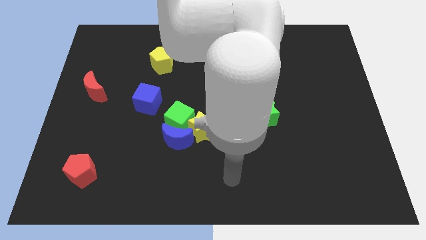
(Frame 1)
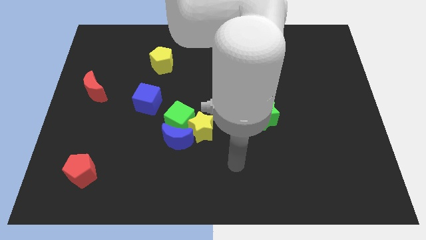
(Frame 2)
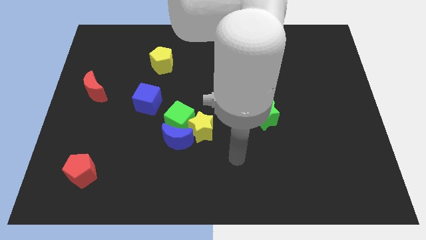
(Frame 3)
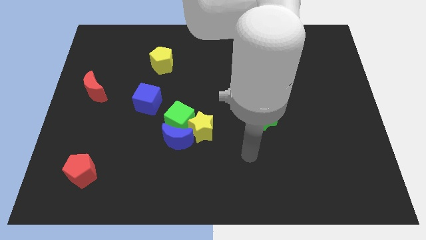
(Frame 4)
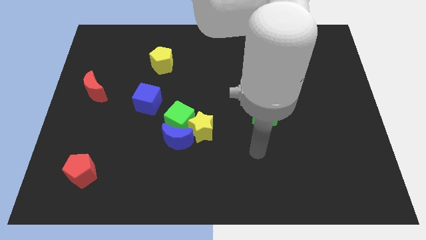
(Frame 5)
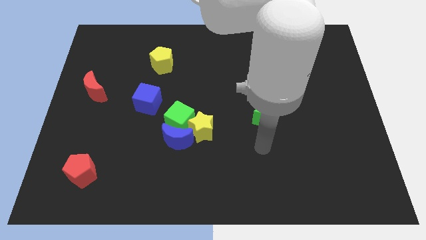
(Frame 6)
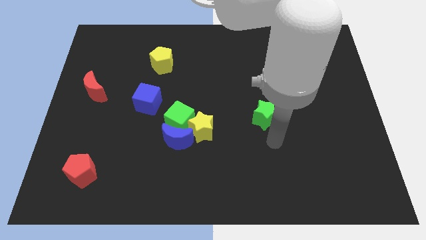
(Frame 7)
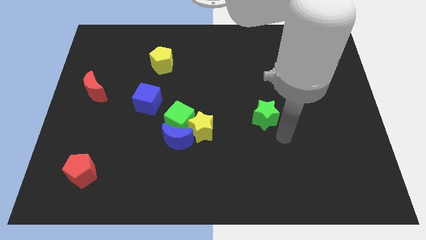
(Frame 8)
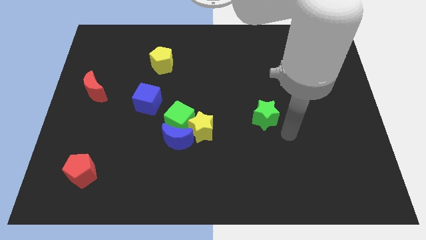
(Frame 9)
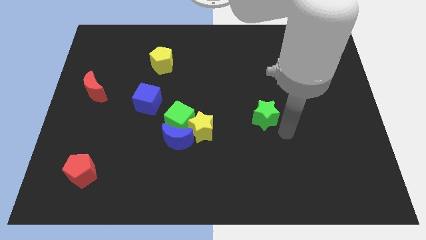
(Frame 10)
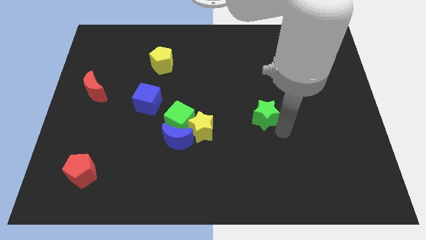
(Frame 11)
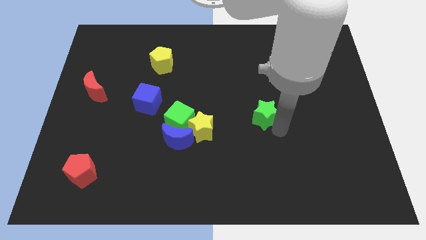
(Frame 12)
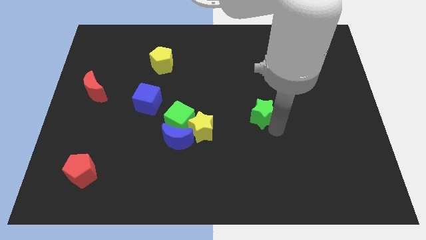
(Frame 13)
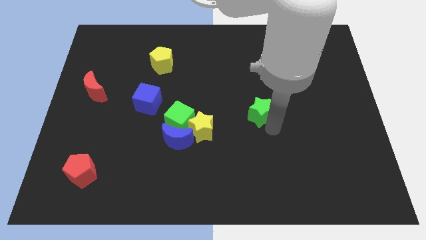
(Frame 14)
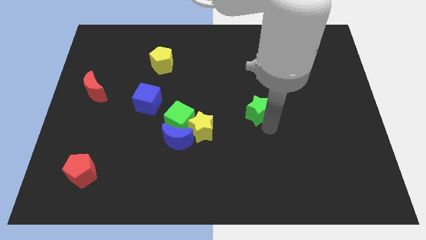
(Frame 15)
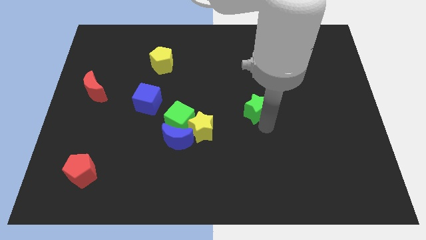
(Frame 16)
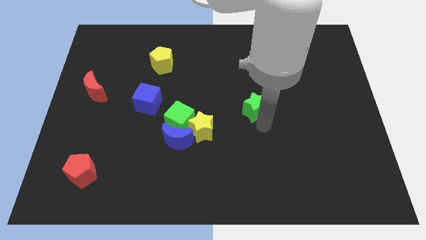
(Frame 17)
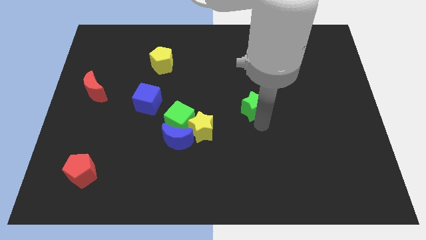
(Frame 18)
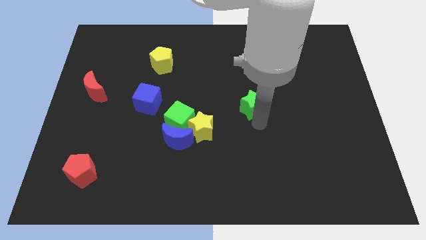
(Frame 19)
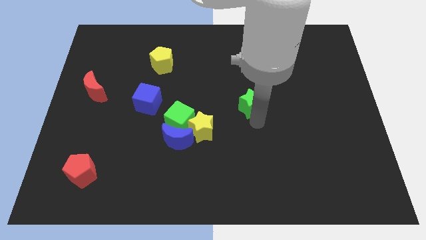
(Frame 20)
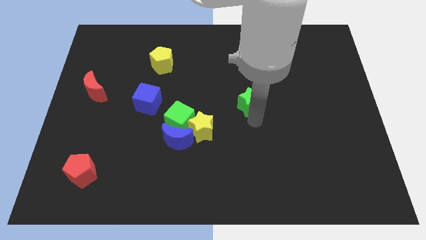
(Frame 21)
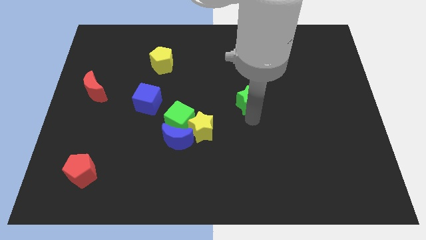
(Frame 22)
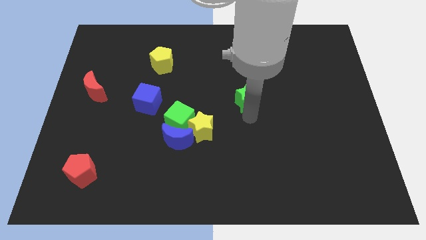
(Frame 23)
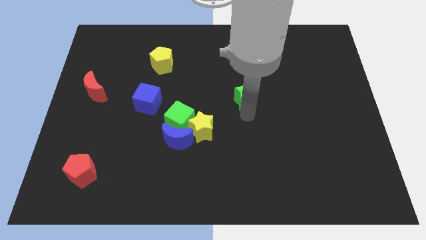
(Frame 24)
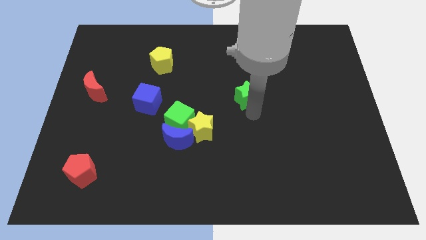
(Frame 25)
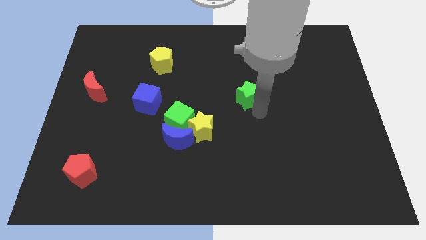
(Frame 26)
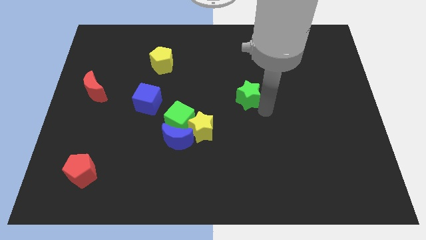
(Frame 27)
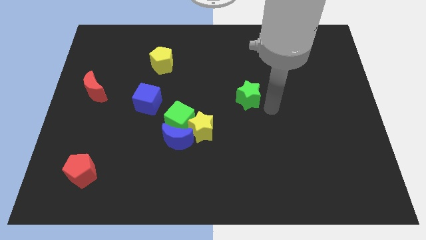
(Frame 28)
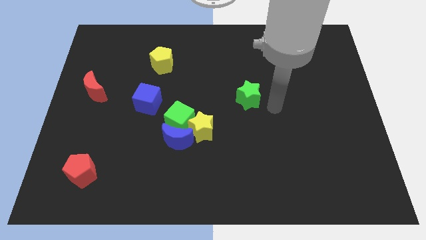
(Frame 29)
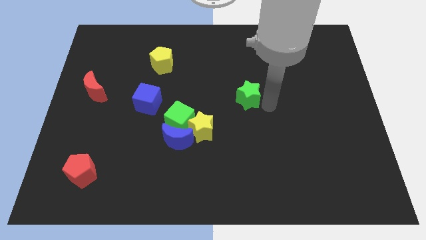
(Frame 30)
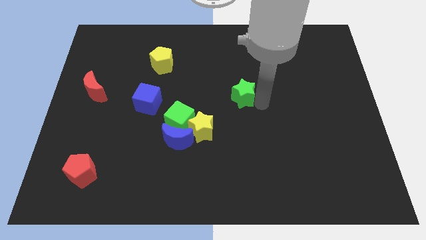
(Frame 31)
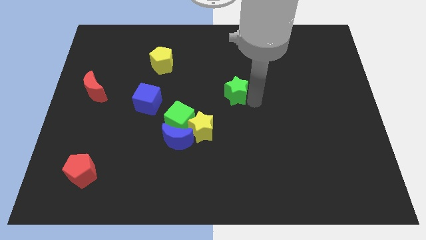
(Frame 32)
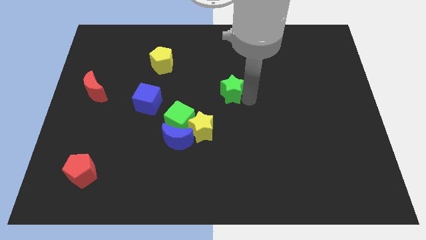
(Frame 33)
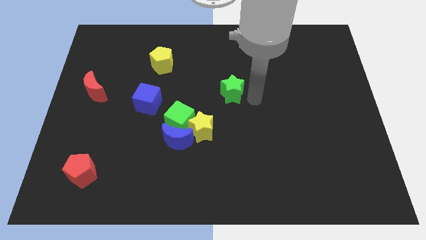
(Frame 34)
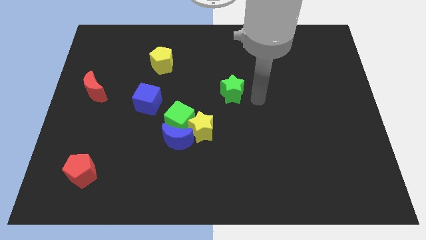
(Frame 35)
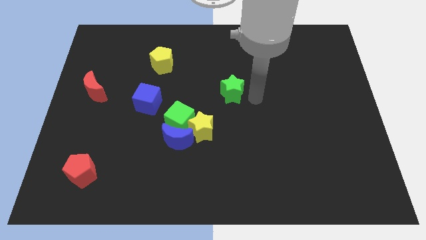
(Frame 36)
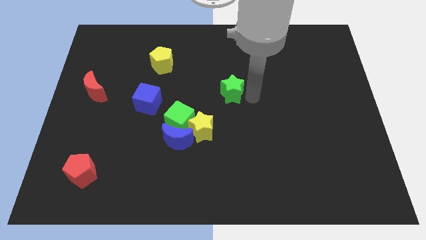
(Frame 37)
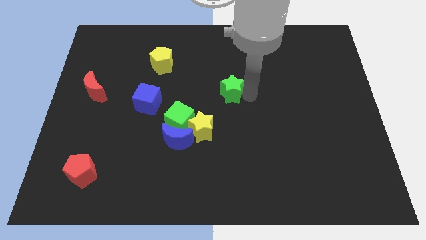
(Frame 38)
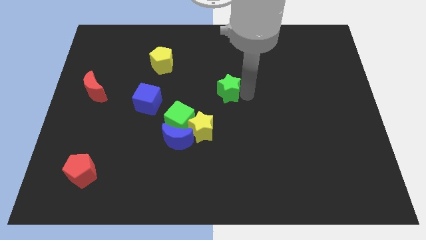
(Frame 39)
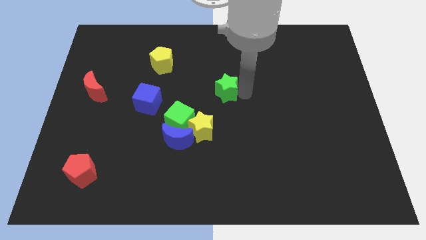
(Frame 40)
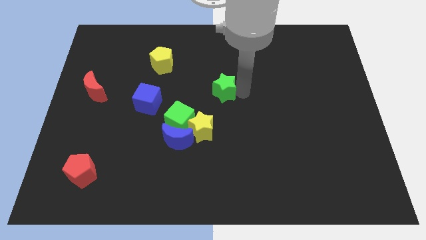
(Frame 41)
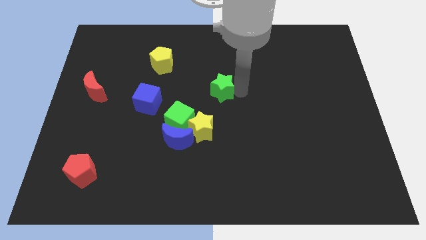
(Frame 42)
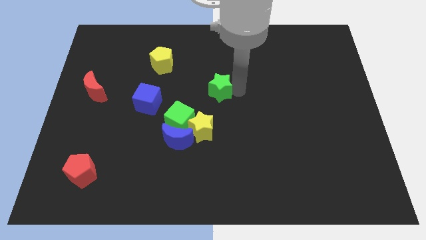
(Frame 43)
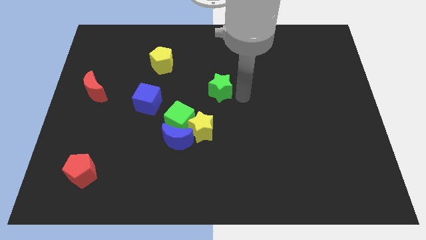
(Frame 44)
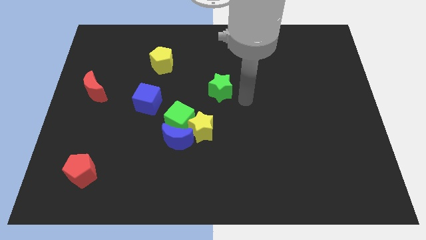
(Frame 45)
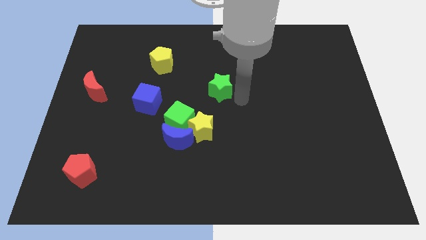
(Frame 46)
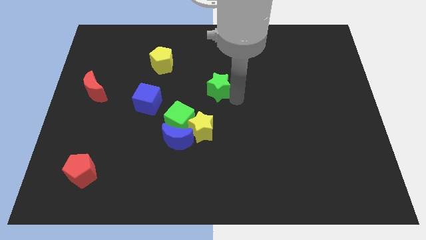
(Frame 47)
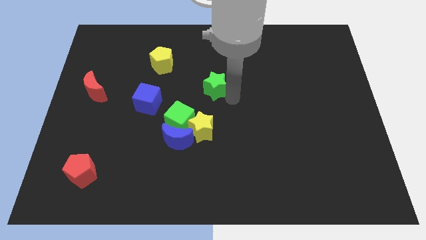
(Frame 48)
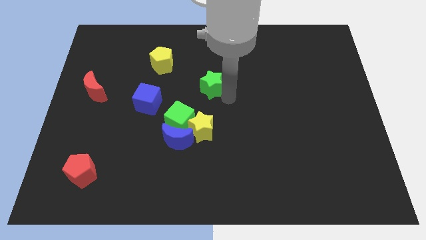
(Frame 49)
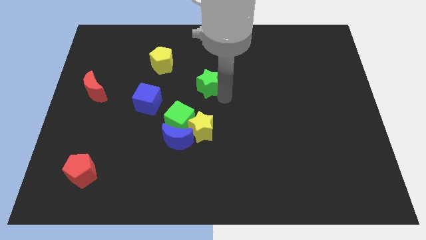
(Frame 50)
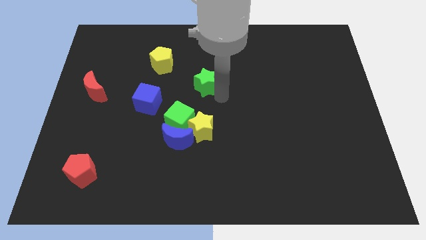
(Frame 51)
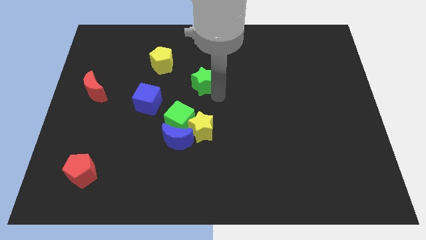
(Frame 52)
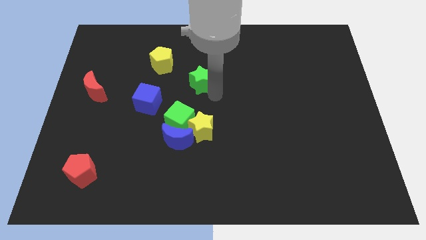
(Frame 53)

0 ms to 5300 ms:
put the green star diagonally down and to the right of the yellow pentagon

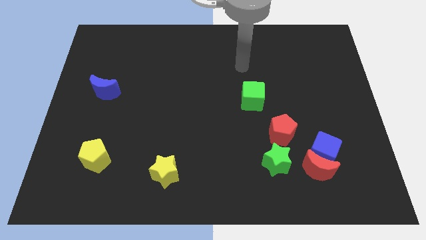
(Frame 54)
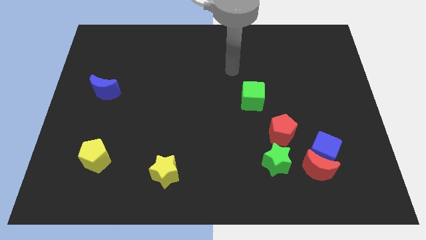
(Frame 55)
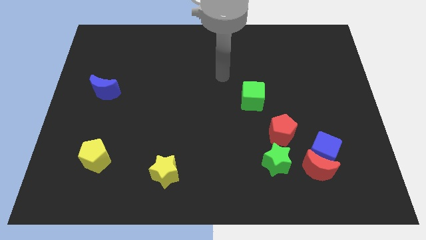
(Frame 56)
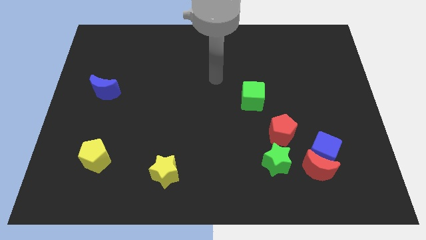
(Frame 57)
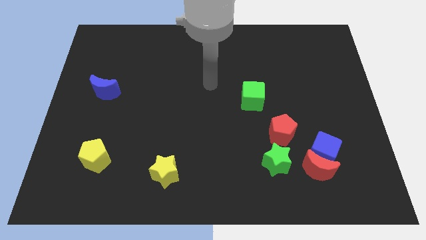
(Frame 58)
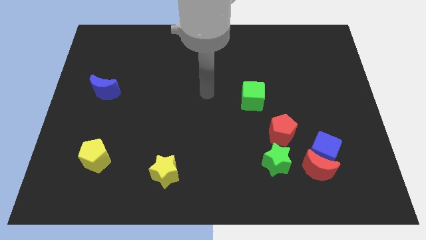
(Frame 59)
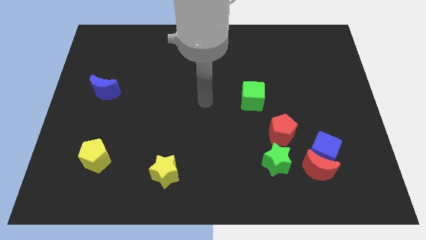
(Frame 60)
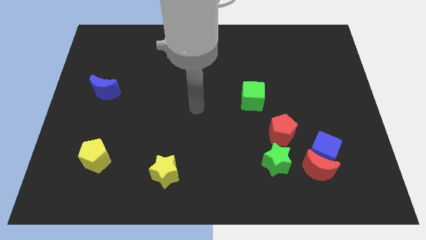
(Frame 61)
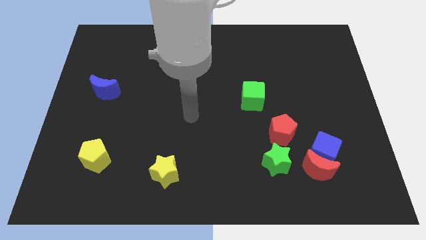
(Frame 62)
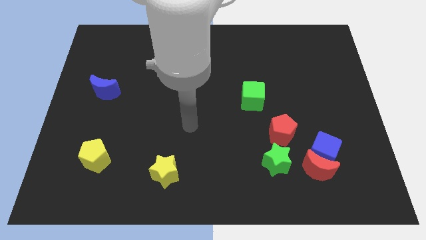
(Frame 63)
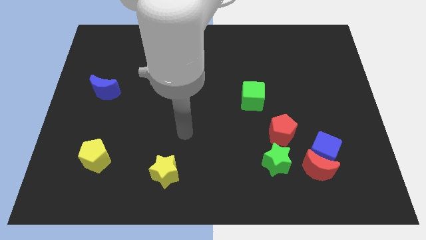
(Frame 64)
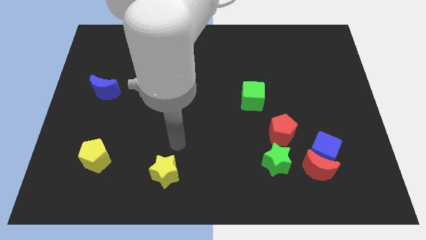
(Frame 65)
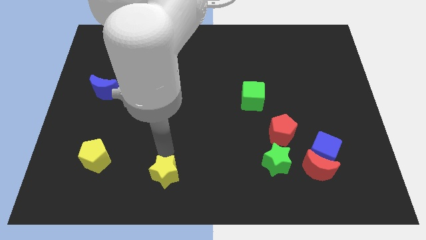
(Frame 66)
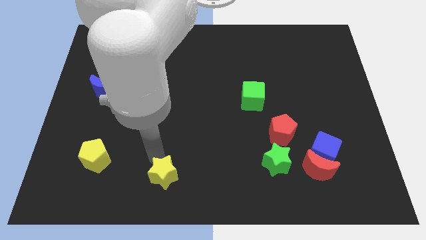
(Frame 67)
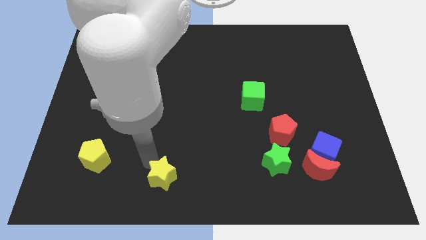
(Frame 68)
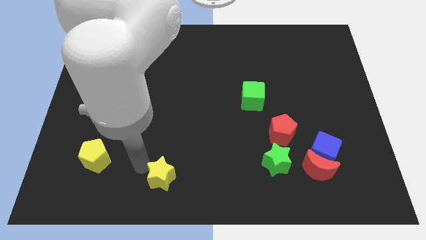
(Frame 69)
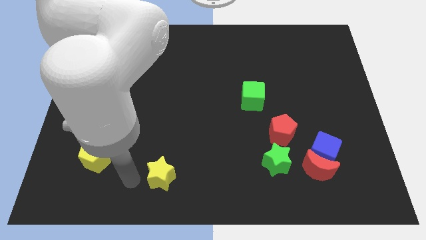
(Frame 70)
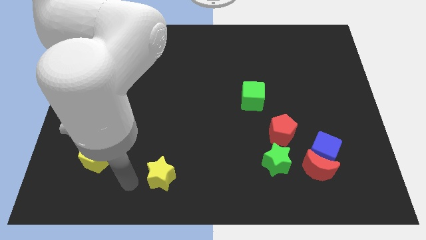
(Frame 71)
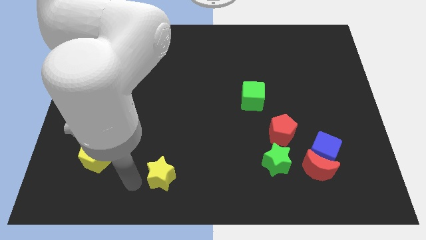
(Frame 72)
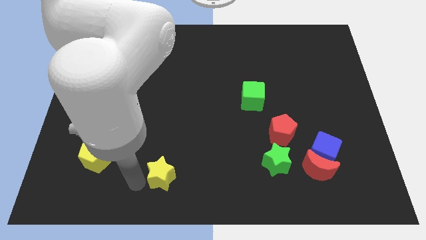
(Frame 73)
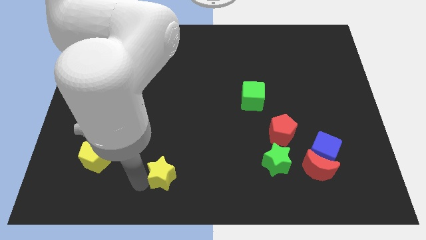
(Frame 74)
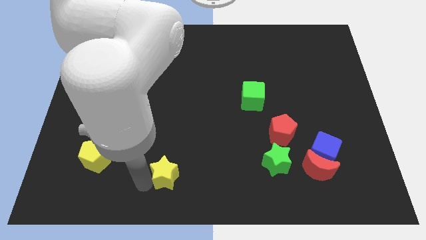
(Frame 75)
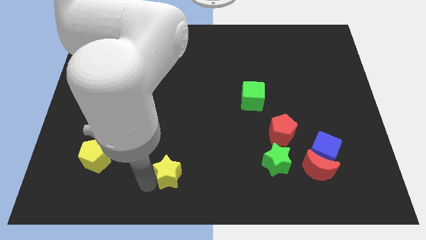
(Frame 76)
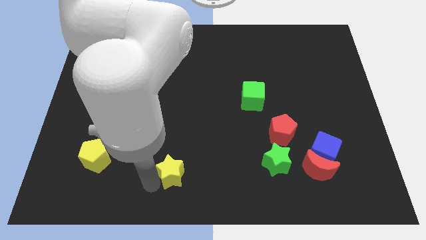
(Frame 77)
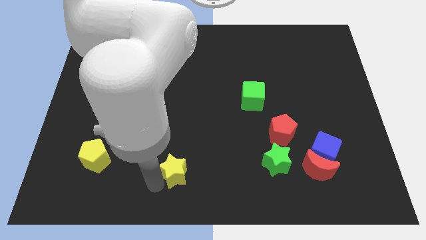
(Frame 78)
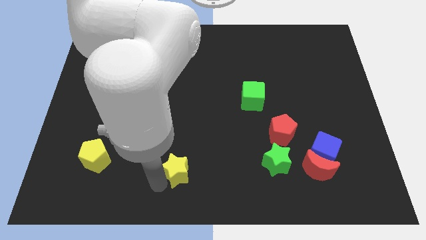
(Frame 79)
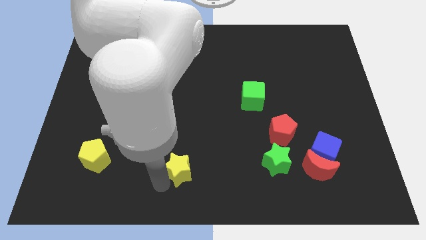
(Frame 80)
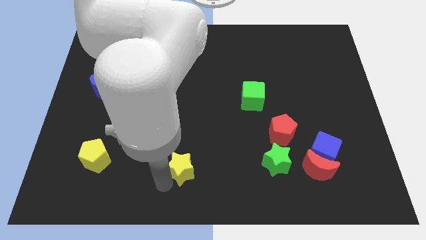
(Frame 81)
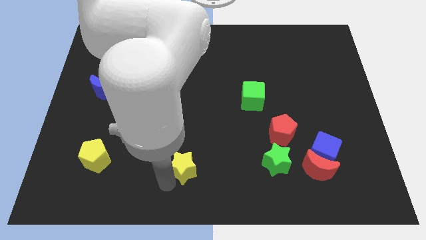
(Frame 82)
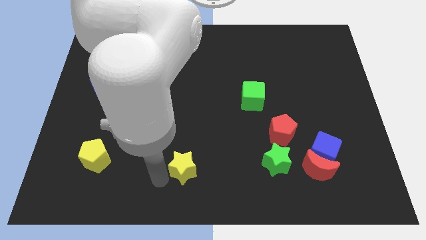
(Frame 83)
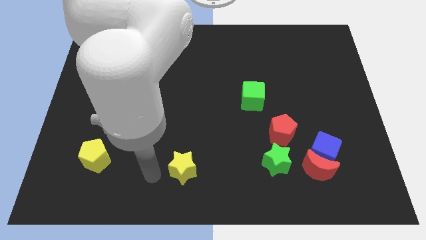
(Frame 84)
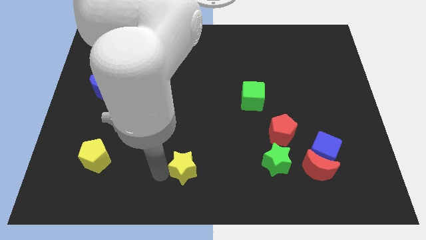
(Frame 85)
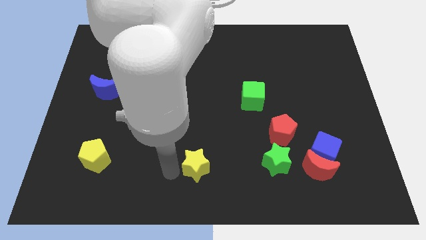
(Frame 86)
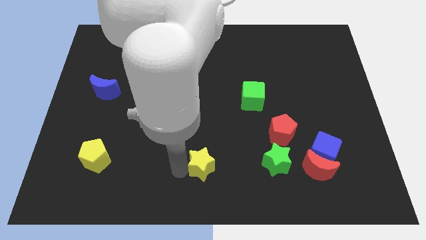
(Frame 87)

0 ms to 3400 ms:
put the yellow star to the left side of the green star
